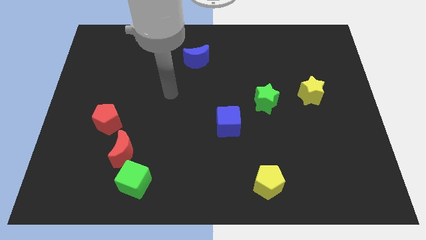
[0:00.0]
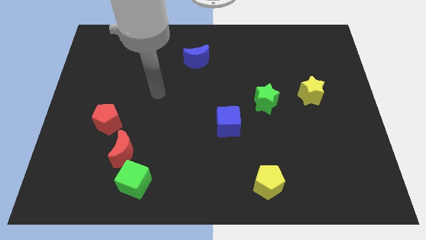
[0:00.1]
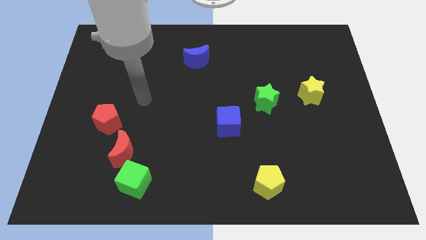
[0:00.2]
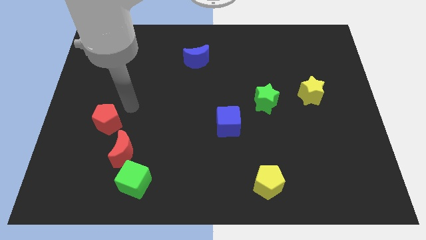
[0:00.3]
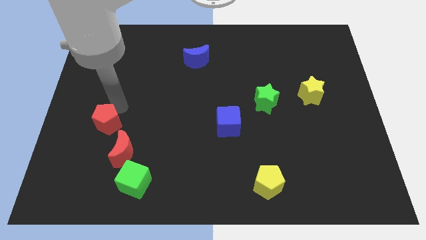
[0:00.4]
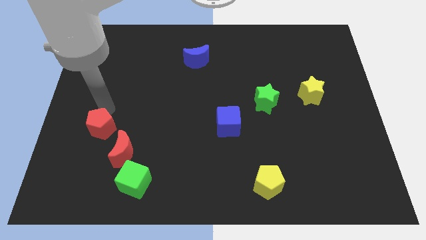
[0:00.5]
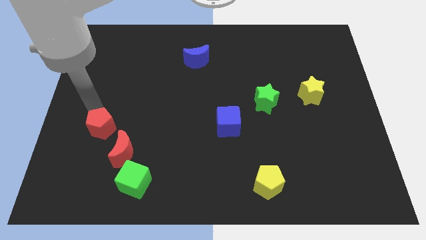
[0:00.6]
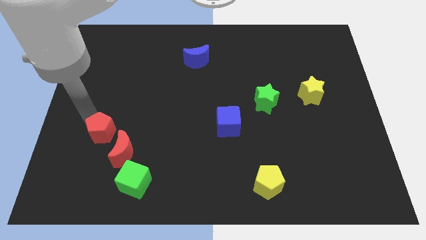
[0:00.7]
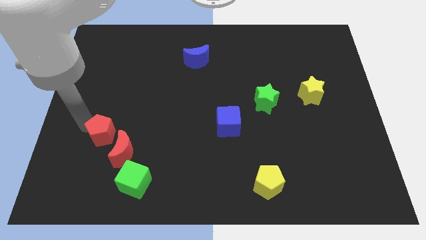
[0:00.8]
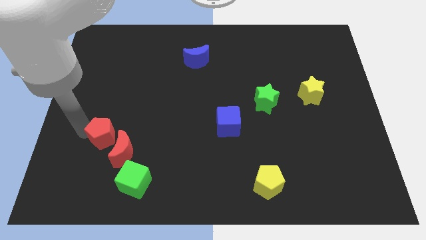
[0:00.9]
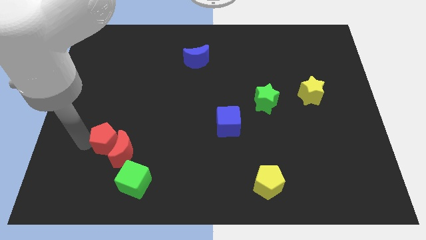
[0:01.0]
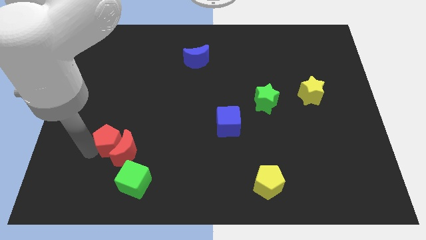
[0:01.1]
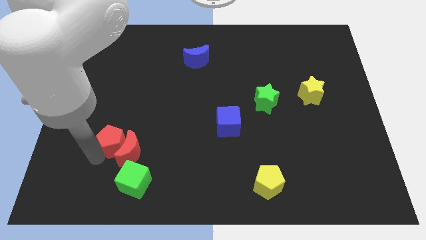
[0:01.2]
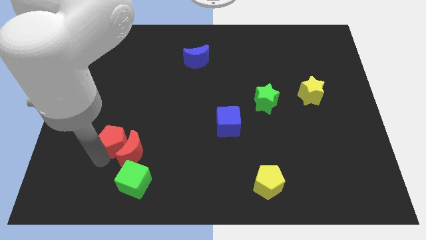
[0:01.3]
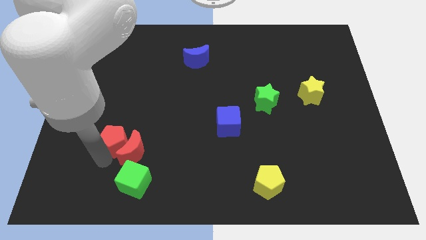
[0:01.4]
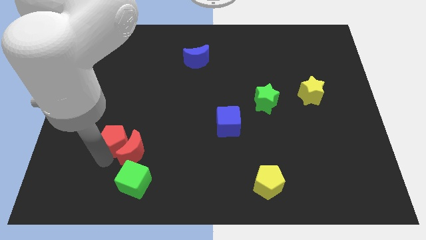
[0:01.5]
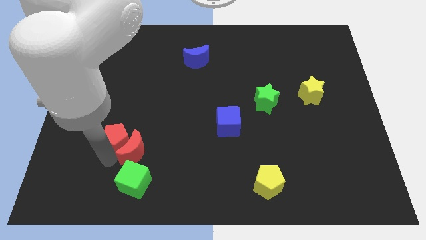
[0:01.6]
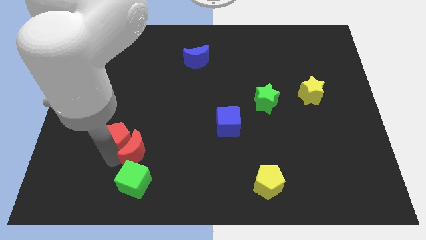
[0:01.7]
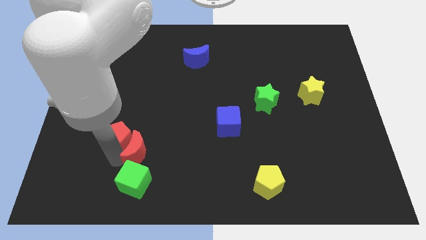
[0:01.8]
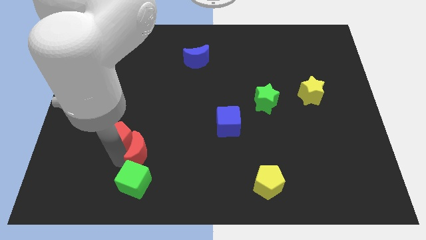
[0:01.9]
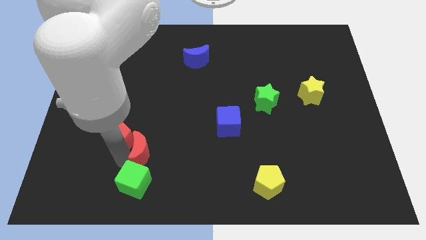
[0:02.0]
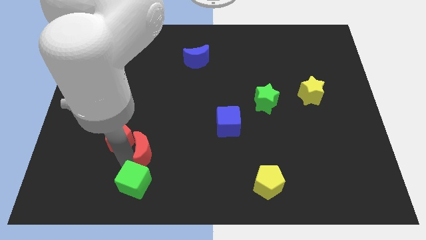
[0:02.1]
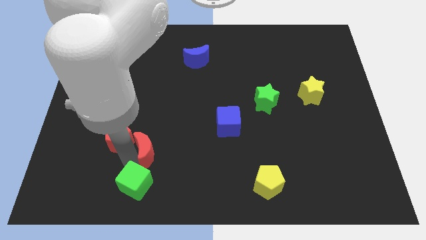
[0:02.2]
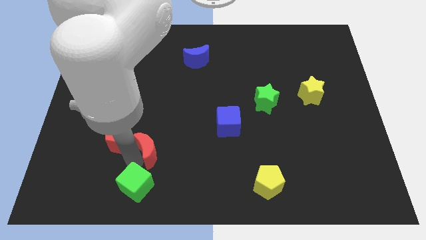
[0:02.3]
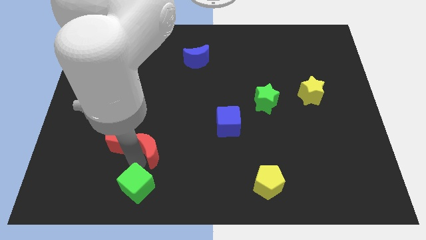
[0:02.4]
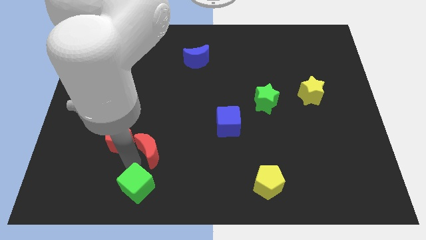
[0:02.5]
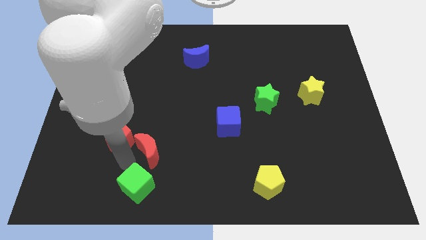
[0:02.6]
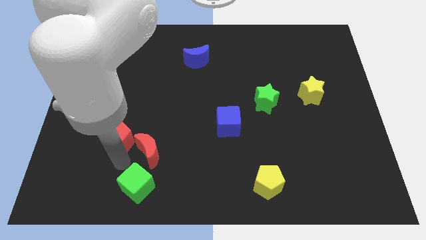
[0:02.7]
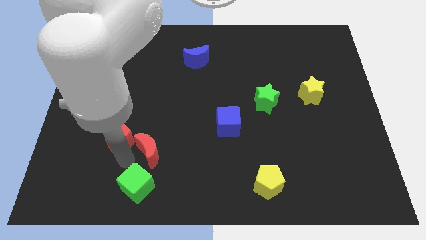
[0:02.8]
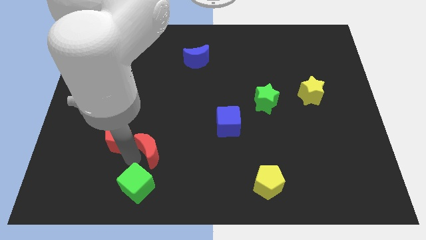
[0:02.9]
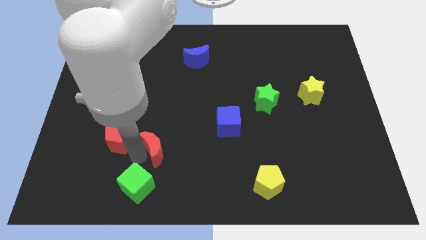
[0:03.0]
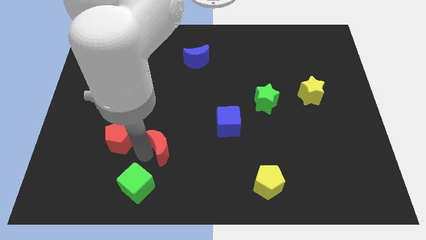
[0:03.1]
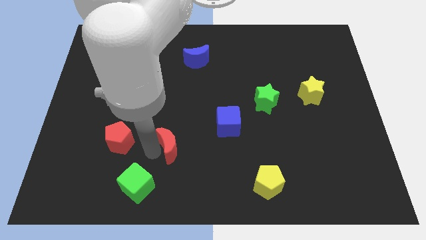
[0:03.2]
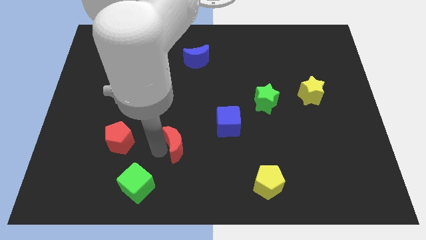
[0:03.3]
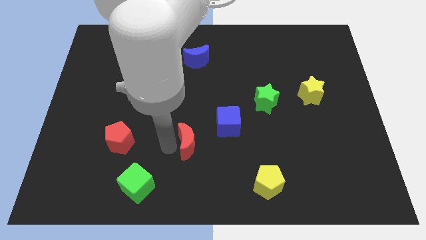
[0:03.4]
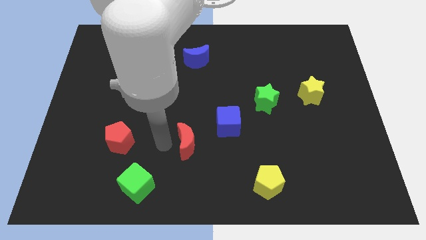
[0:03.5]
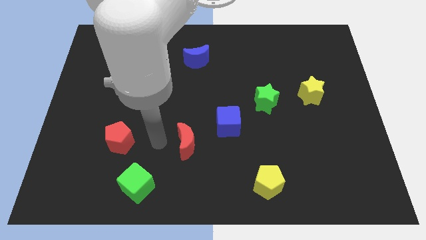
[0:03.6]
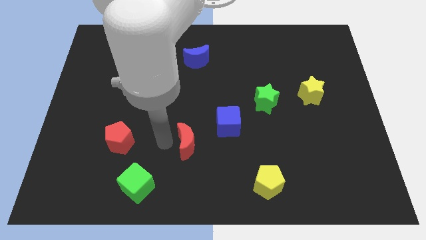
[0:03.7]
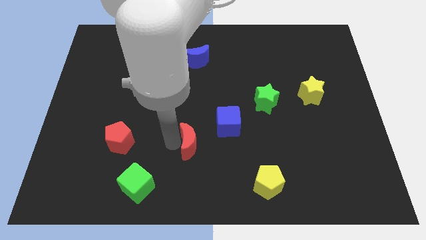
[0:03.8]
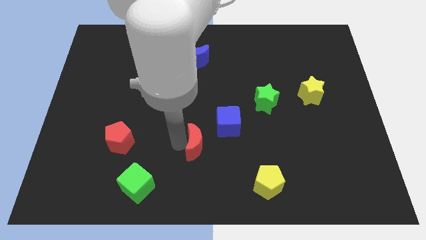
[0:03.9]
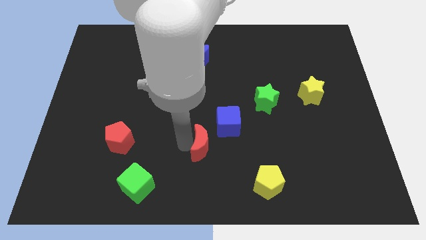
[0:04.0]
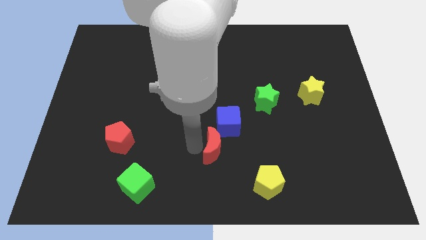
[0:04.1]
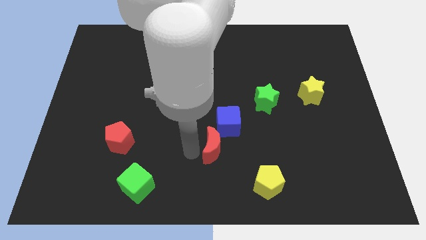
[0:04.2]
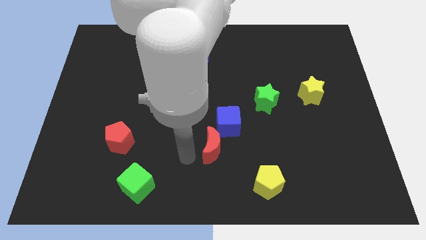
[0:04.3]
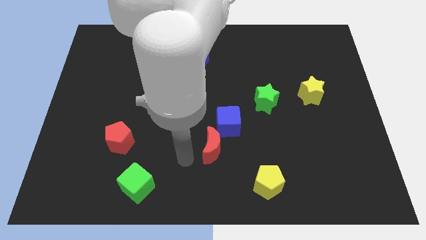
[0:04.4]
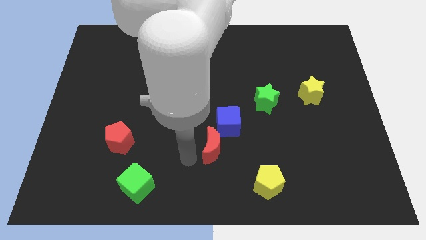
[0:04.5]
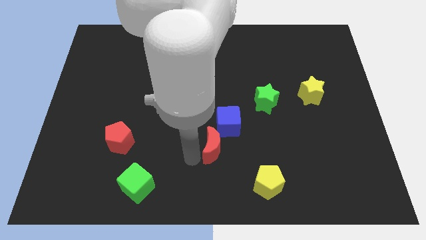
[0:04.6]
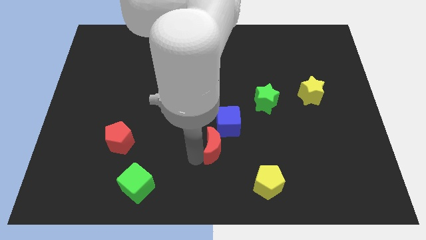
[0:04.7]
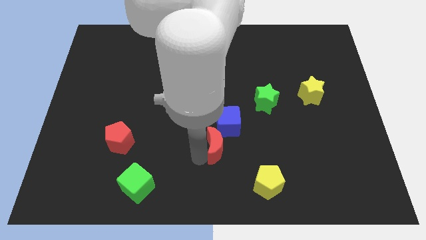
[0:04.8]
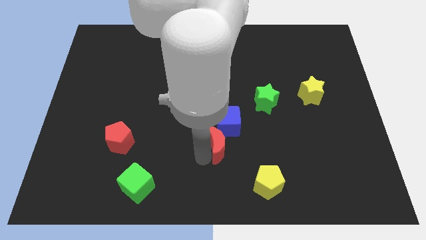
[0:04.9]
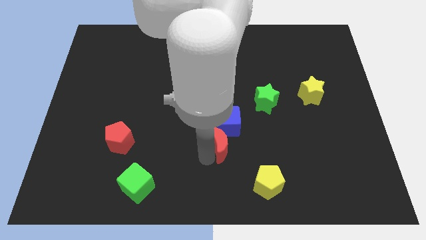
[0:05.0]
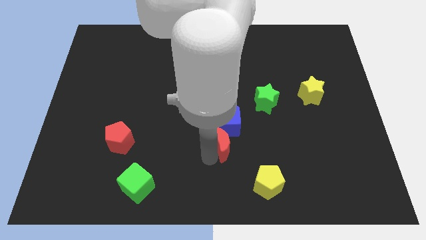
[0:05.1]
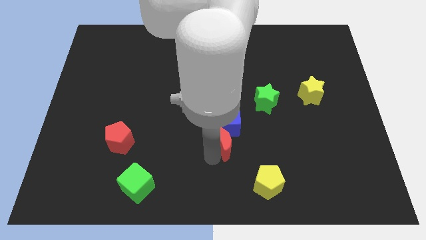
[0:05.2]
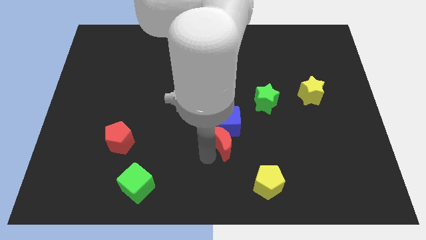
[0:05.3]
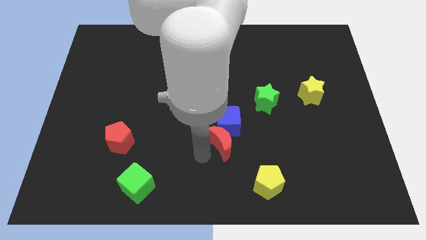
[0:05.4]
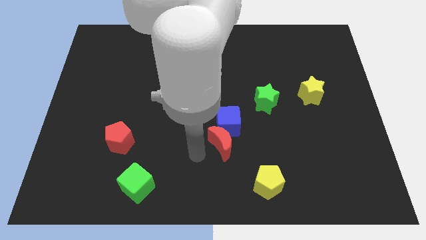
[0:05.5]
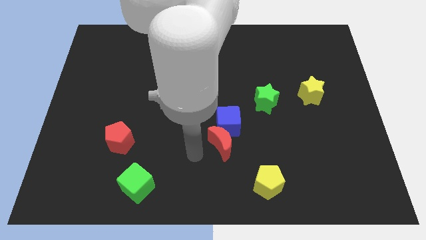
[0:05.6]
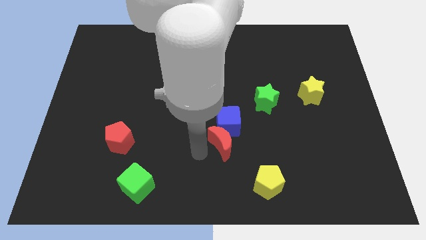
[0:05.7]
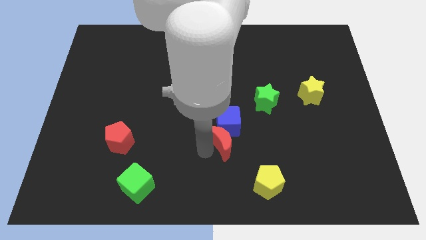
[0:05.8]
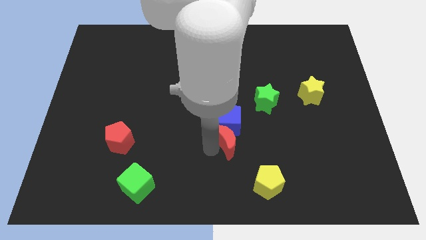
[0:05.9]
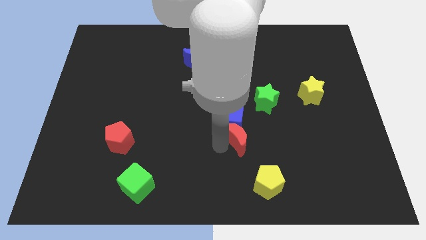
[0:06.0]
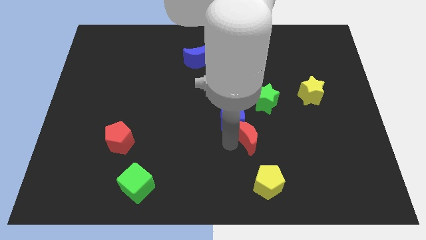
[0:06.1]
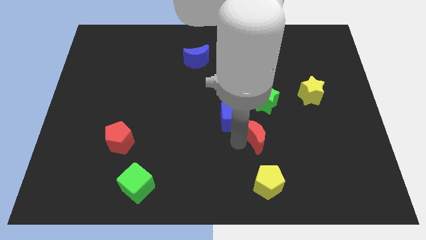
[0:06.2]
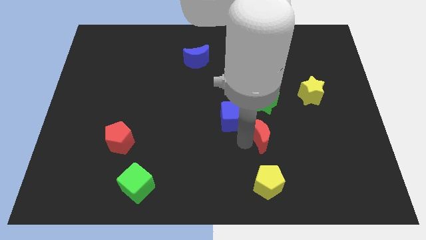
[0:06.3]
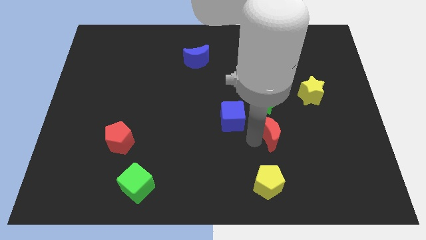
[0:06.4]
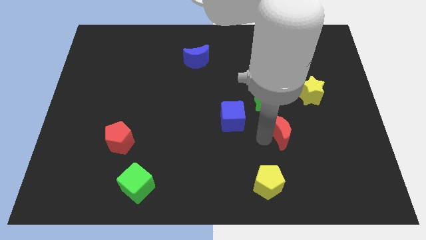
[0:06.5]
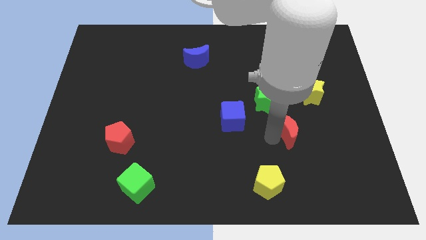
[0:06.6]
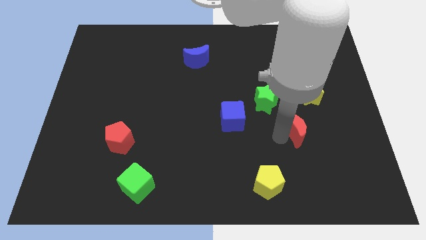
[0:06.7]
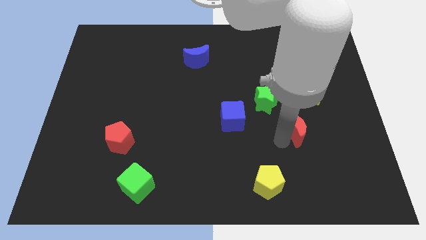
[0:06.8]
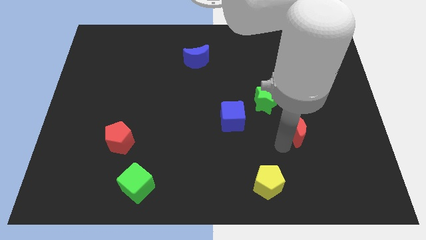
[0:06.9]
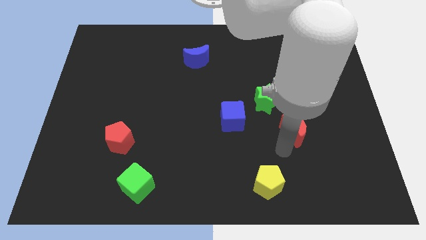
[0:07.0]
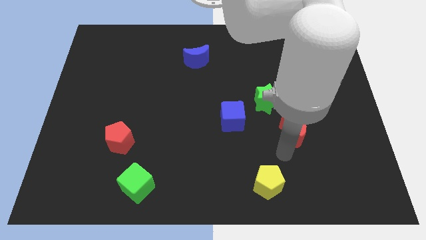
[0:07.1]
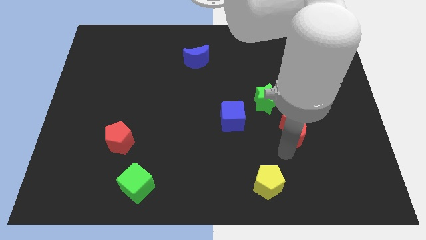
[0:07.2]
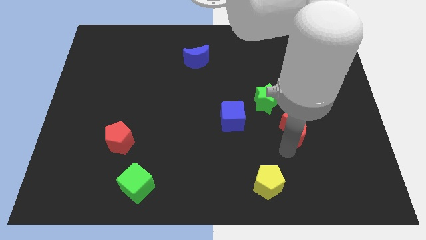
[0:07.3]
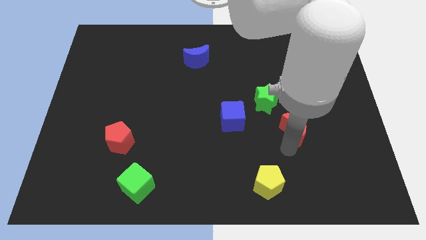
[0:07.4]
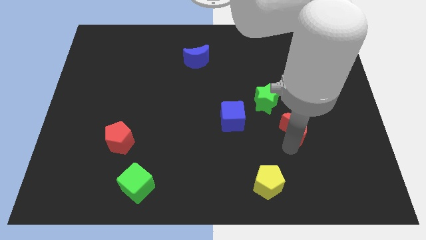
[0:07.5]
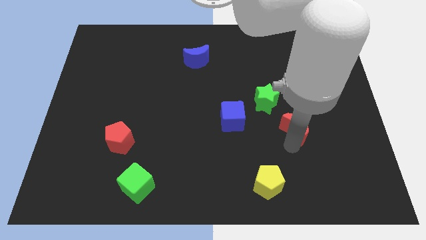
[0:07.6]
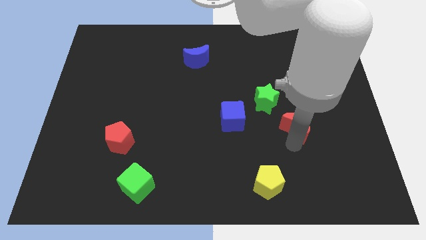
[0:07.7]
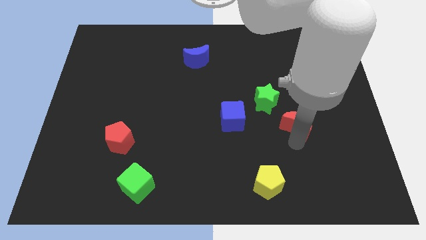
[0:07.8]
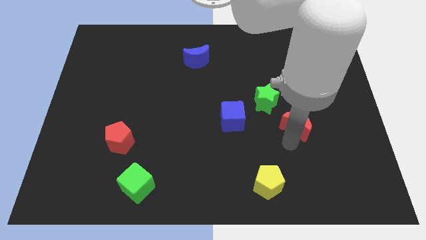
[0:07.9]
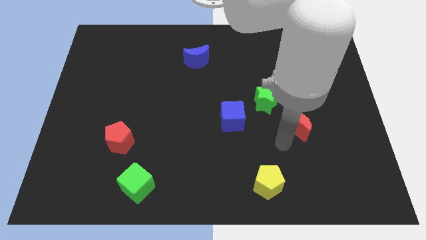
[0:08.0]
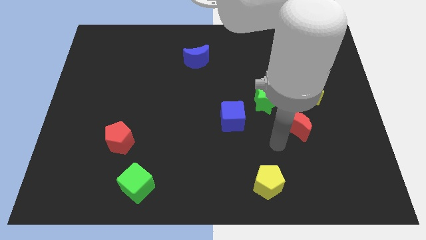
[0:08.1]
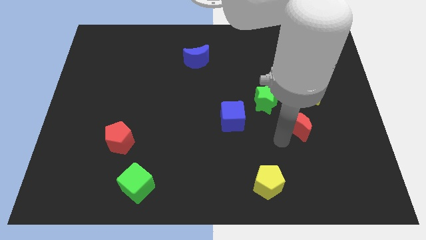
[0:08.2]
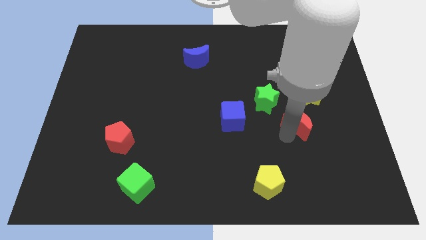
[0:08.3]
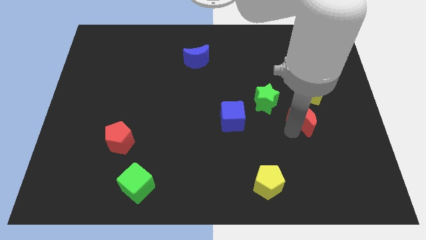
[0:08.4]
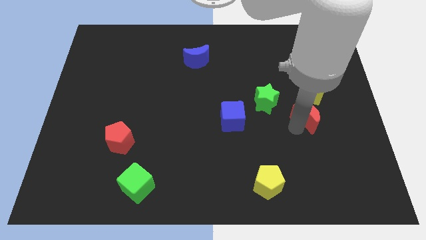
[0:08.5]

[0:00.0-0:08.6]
push the red moon right of the green star
